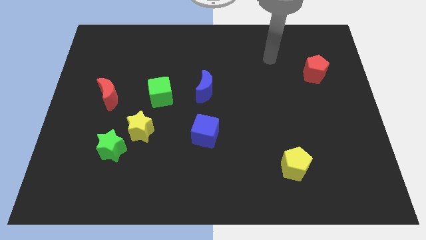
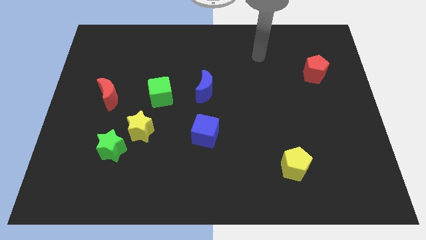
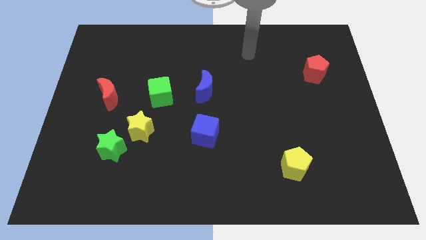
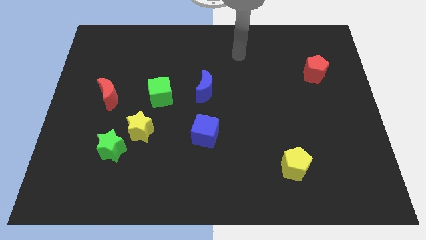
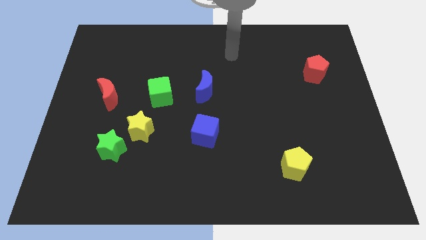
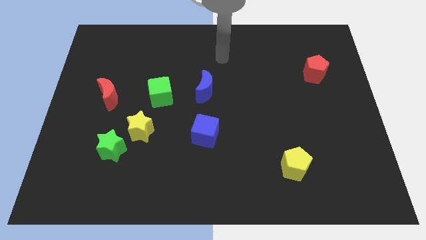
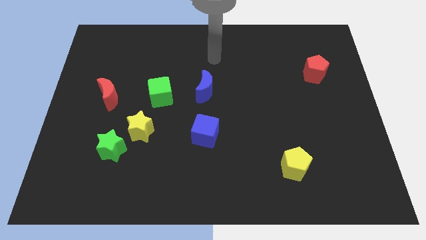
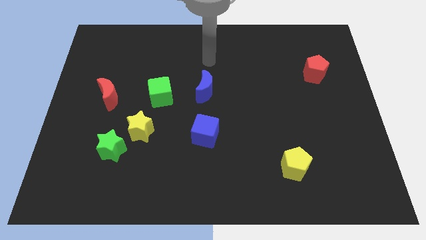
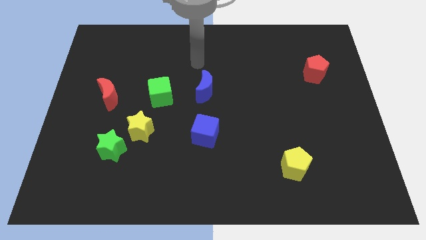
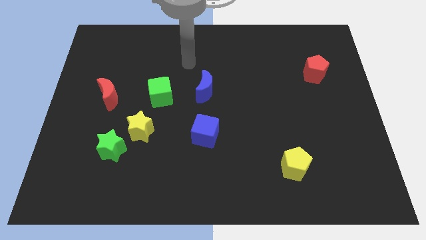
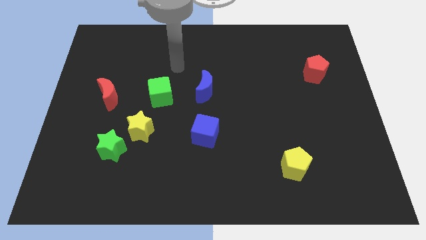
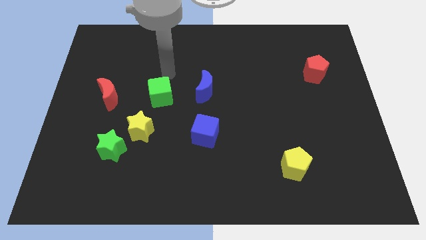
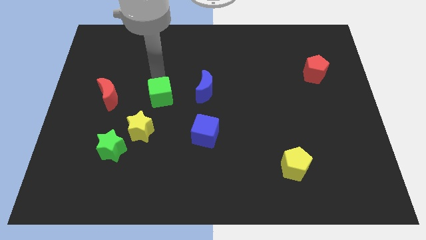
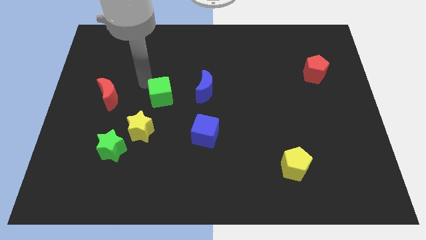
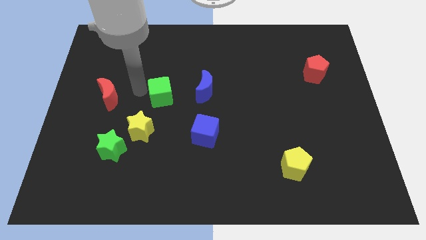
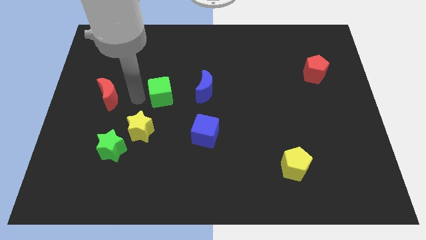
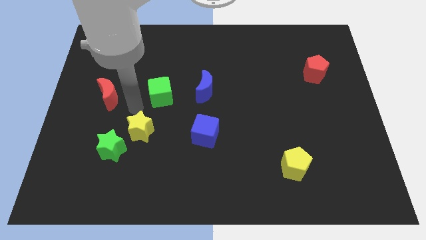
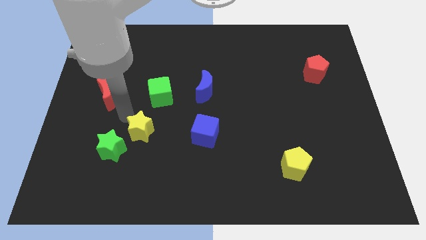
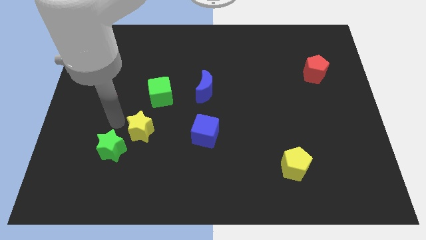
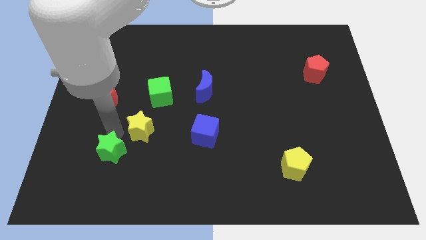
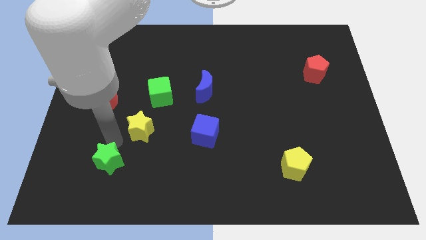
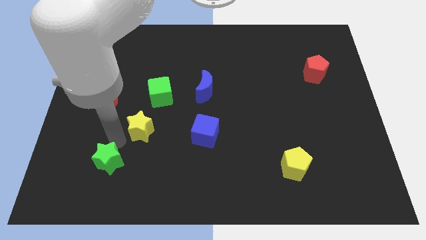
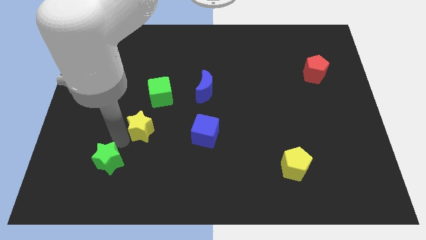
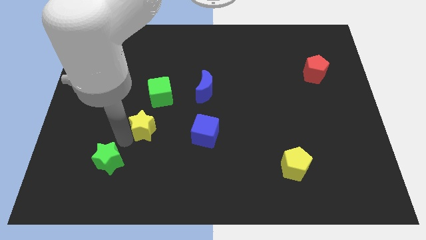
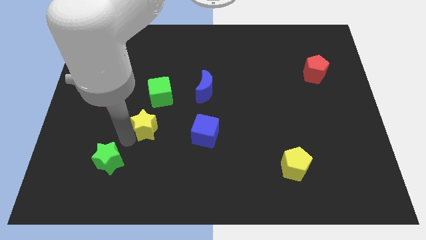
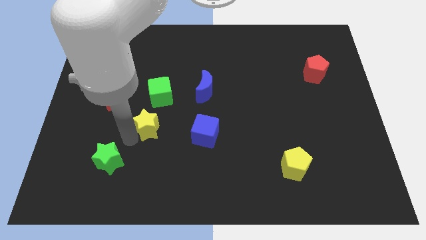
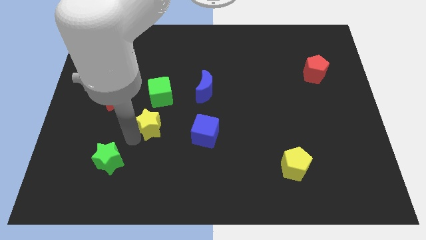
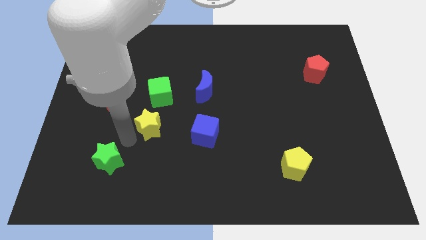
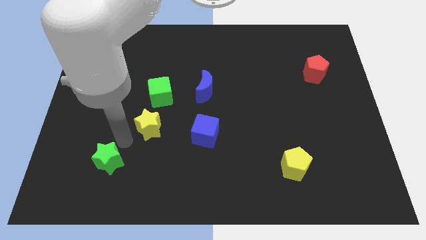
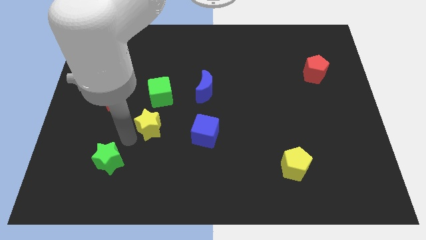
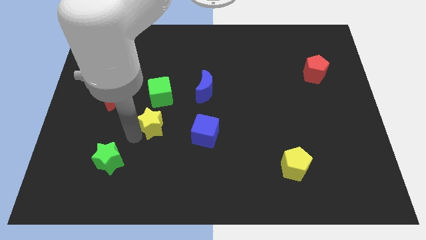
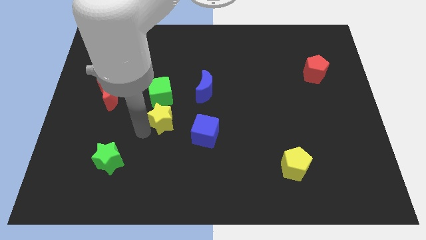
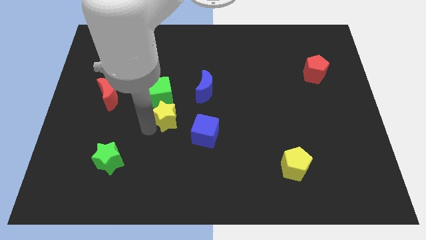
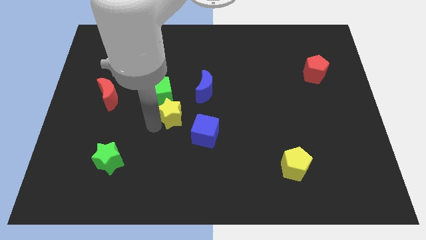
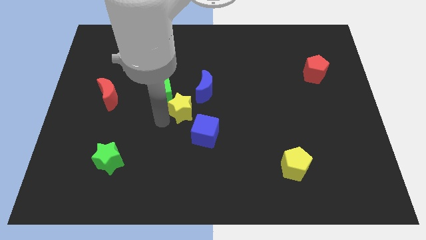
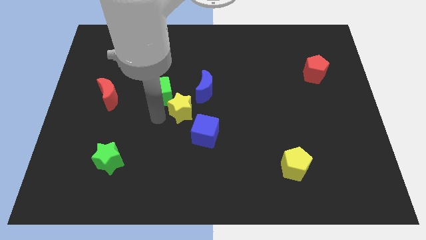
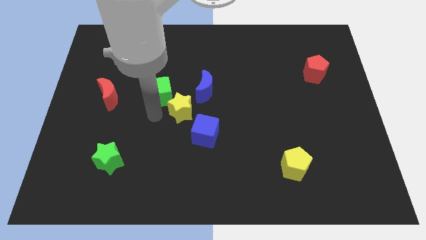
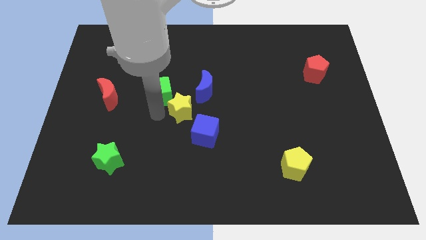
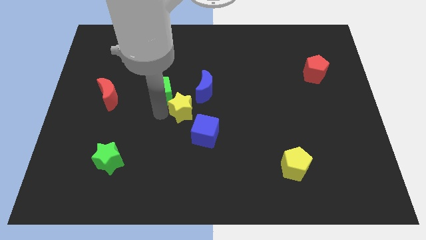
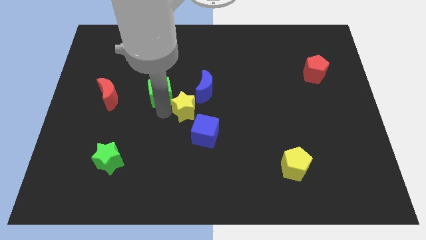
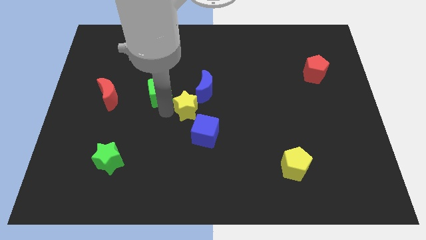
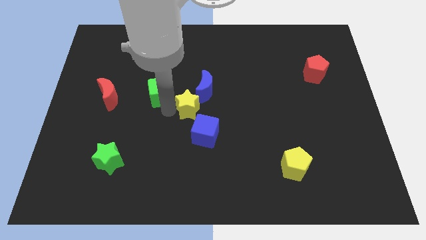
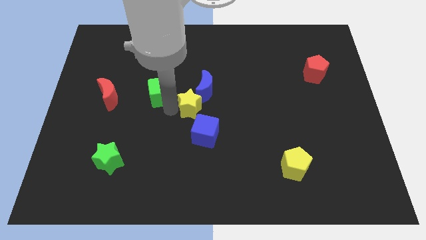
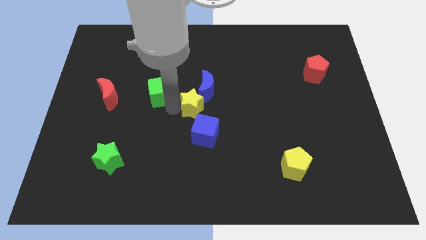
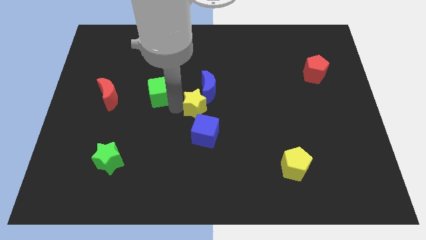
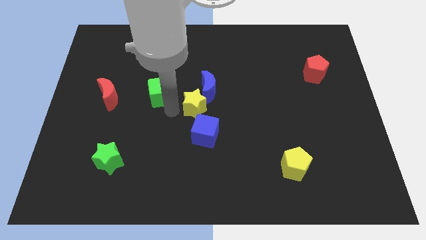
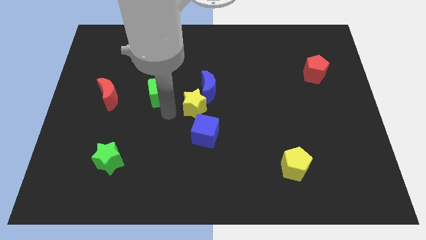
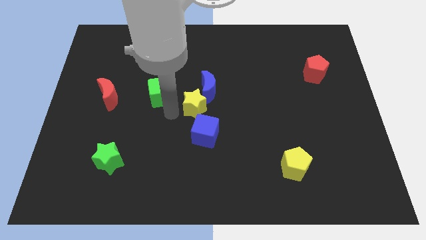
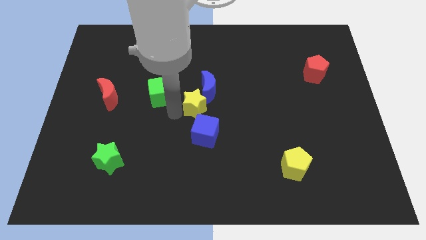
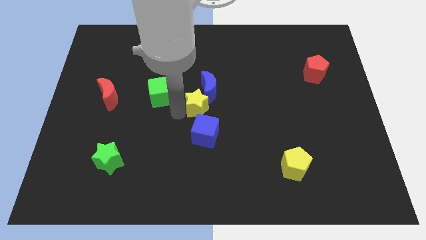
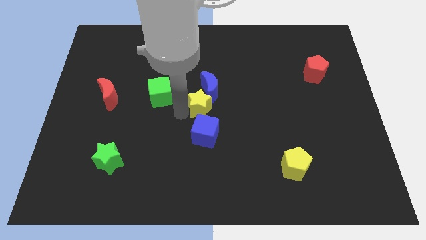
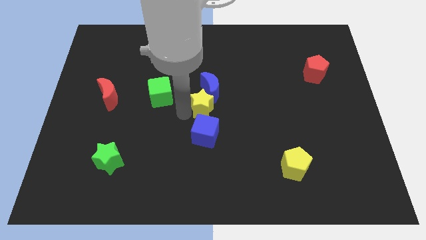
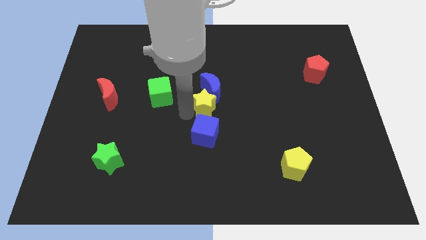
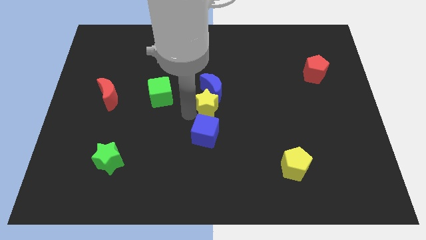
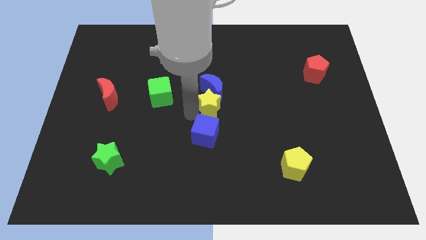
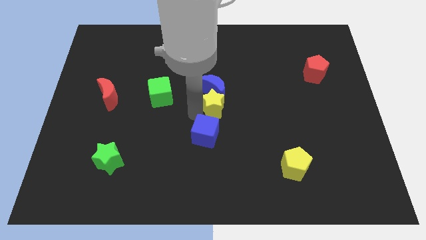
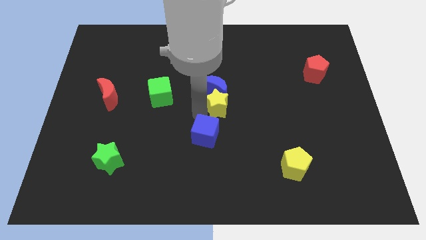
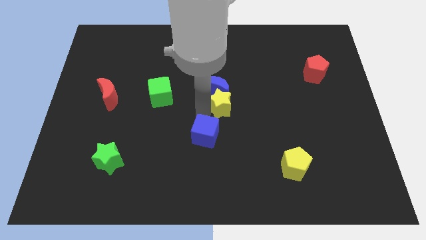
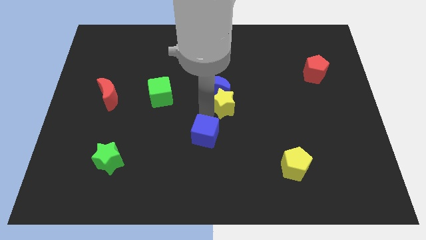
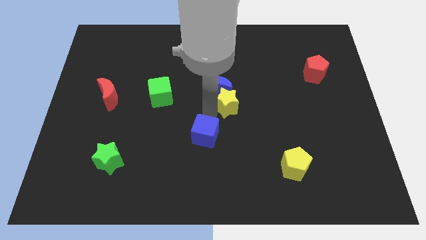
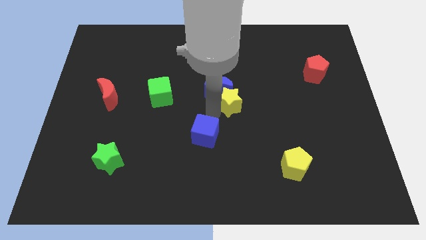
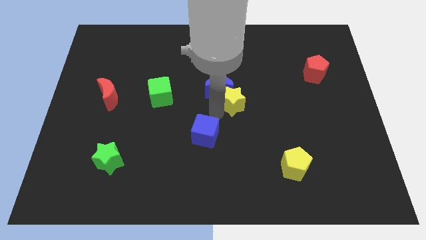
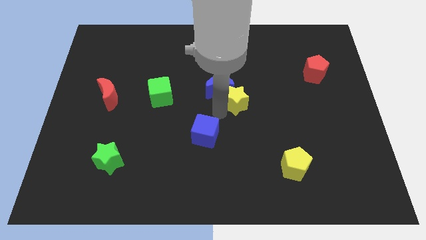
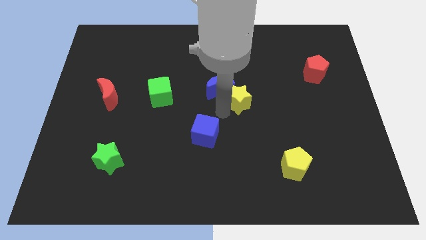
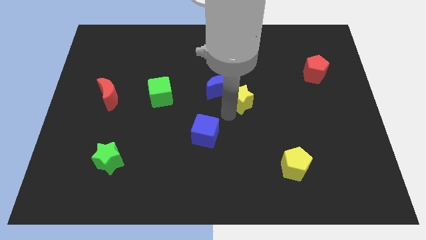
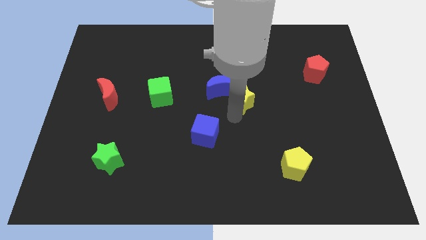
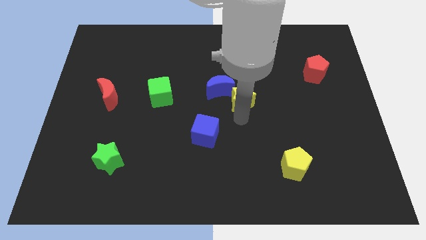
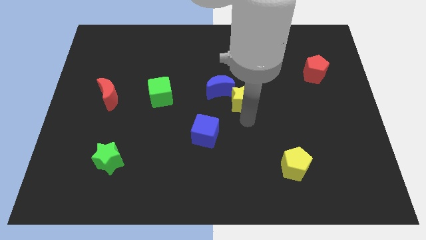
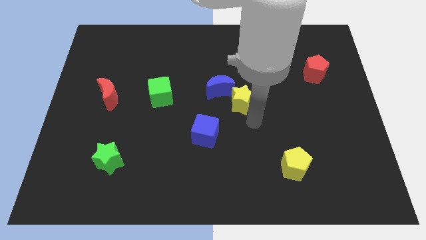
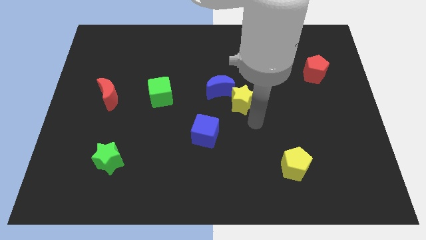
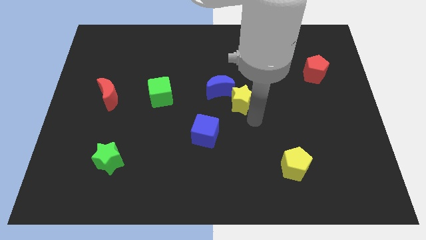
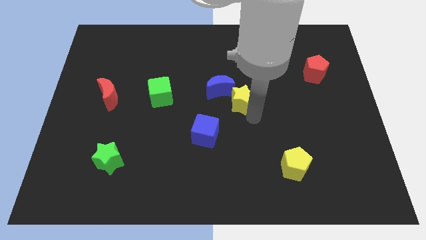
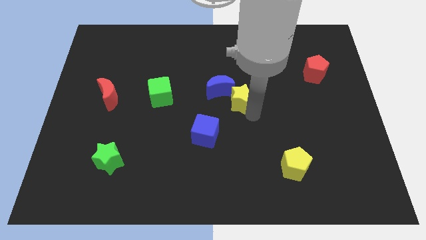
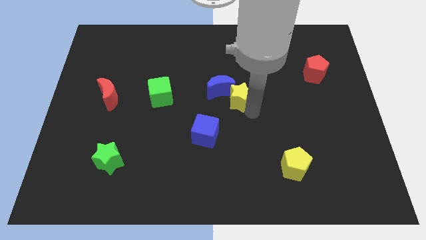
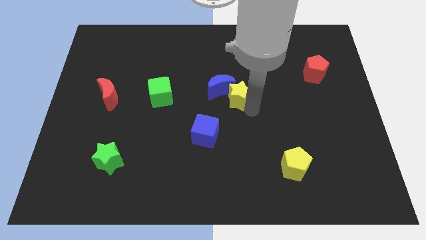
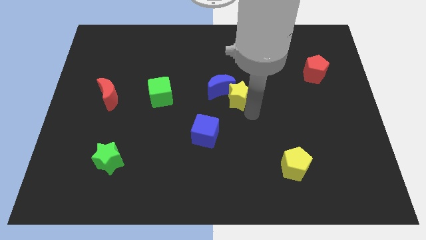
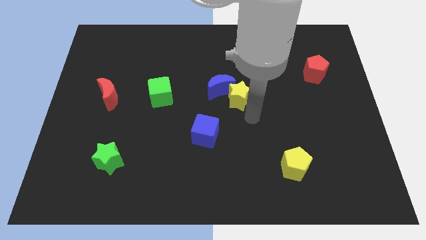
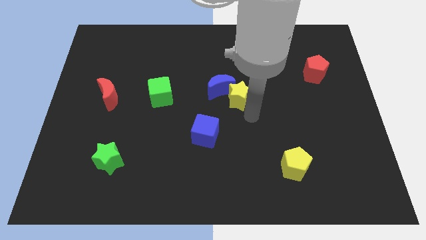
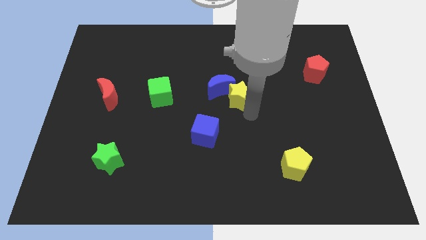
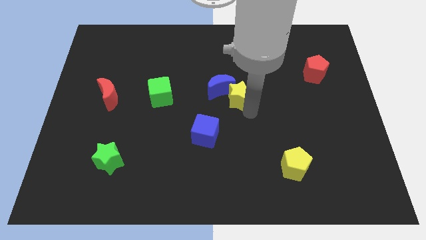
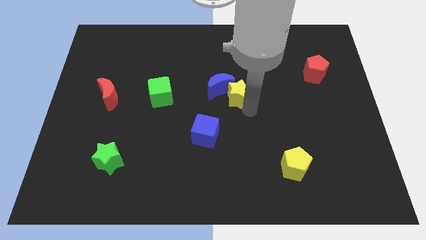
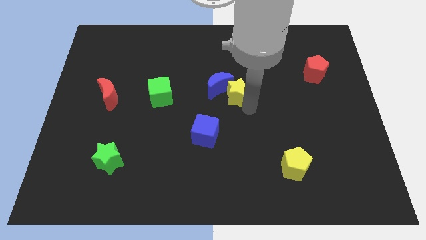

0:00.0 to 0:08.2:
move the yellow star up and to the right diagonally
